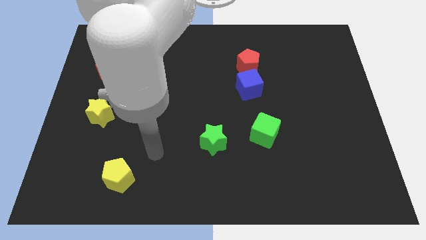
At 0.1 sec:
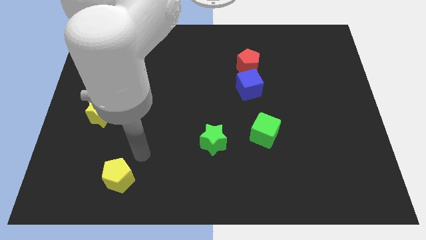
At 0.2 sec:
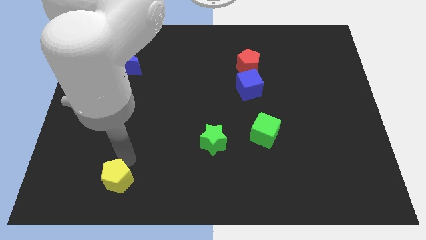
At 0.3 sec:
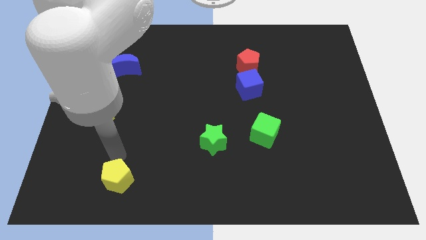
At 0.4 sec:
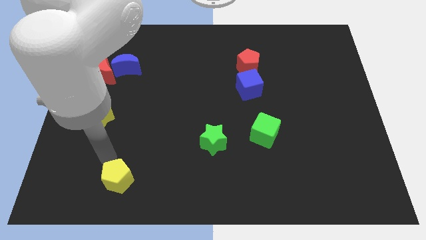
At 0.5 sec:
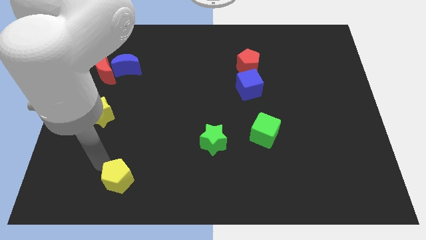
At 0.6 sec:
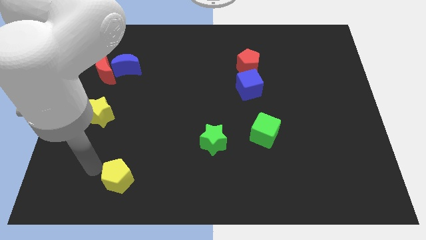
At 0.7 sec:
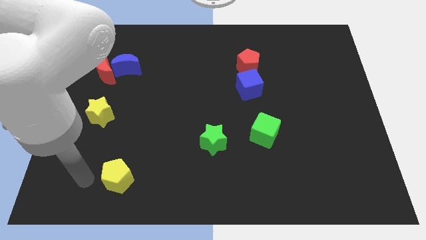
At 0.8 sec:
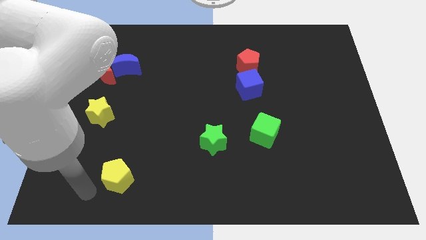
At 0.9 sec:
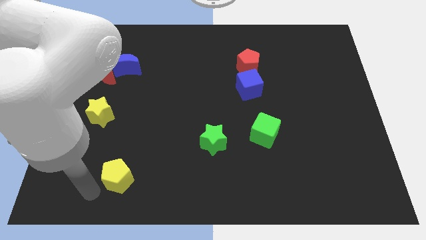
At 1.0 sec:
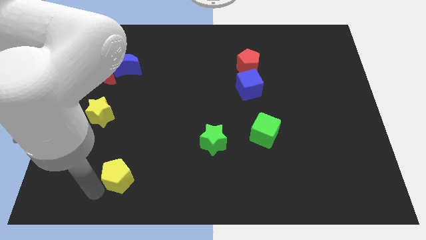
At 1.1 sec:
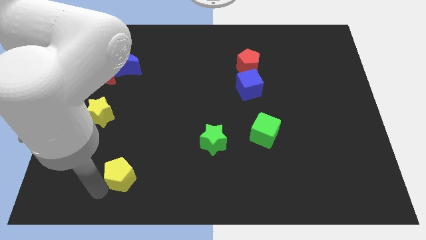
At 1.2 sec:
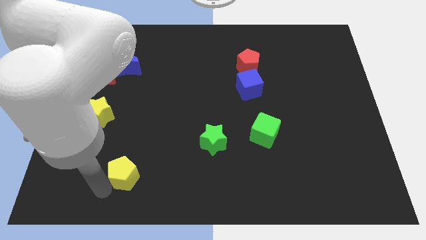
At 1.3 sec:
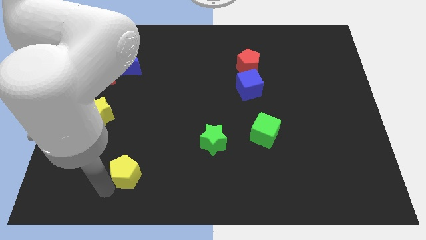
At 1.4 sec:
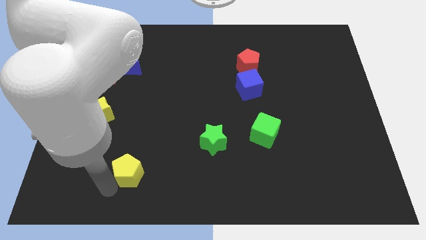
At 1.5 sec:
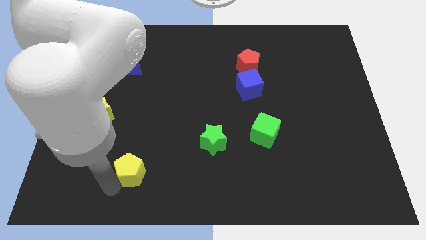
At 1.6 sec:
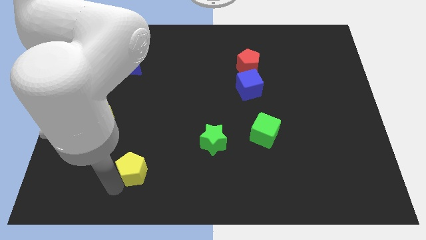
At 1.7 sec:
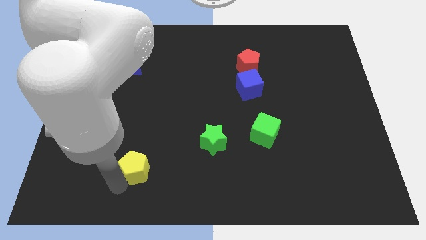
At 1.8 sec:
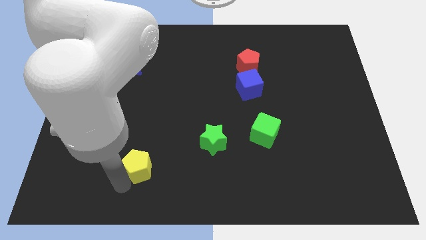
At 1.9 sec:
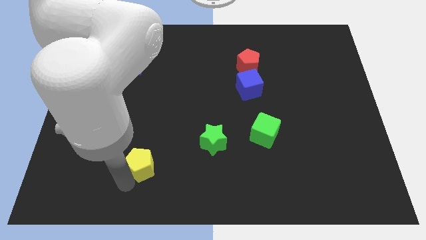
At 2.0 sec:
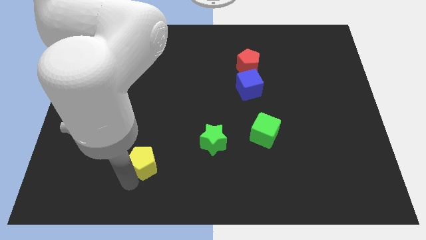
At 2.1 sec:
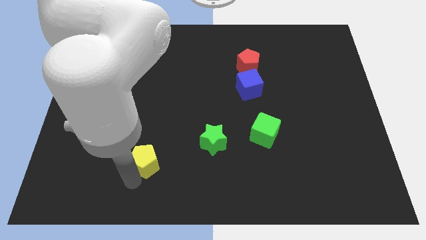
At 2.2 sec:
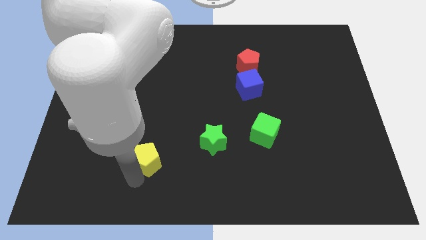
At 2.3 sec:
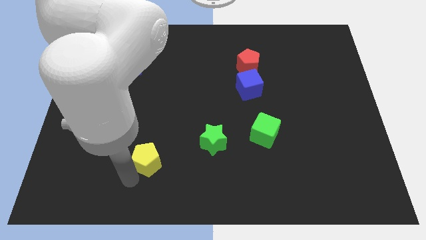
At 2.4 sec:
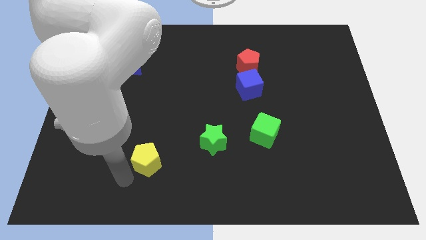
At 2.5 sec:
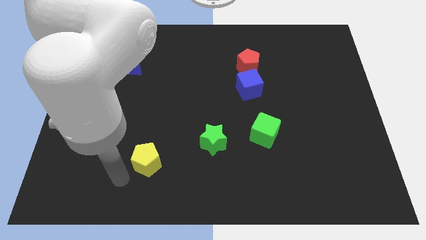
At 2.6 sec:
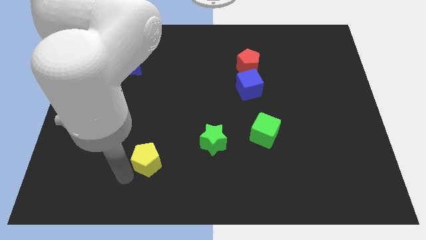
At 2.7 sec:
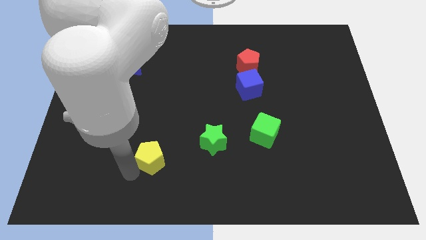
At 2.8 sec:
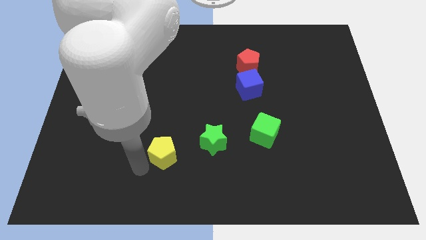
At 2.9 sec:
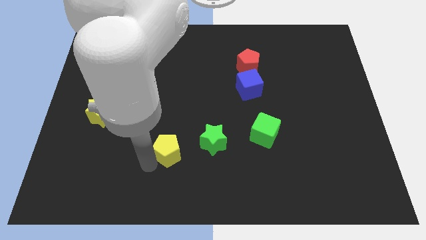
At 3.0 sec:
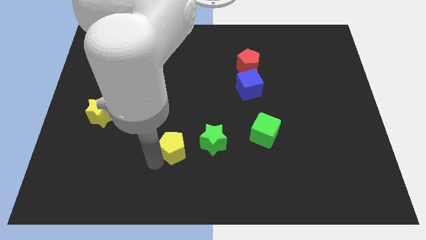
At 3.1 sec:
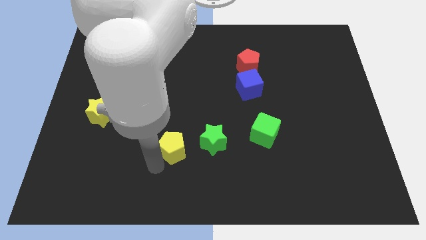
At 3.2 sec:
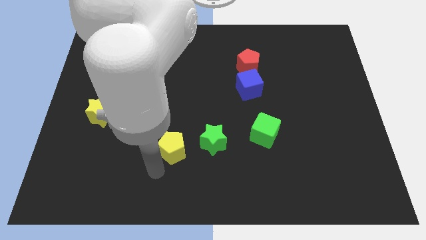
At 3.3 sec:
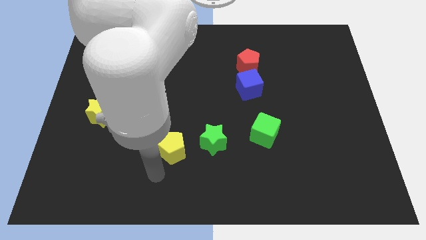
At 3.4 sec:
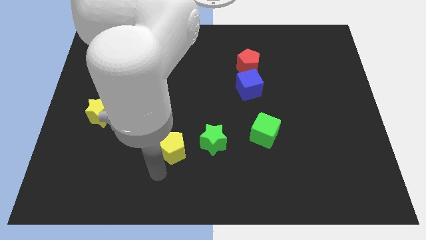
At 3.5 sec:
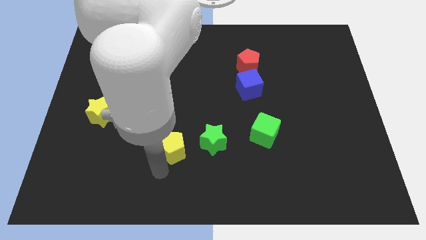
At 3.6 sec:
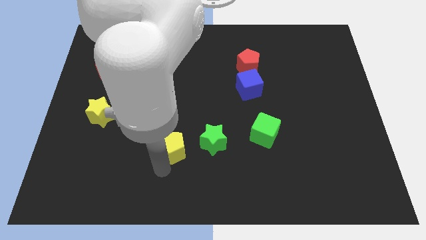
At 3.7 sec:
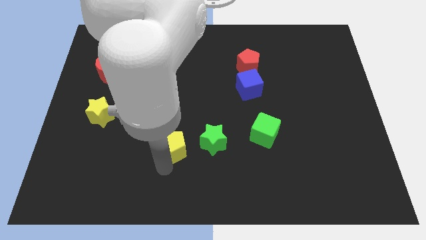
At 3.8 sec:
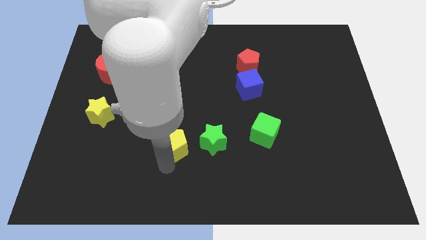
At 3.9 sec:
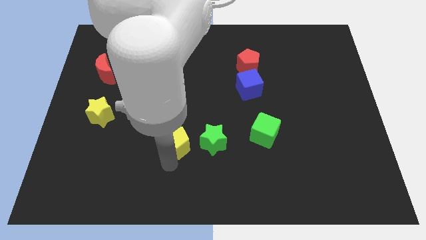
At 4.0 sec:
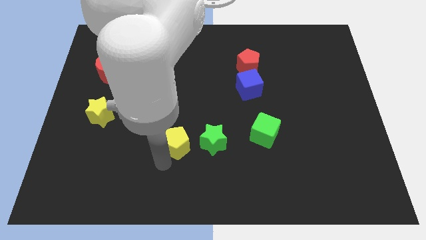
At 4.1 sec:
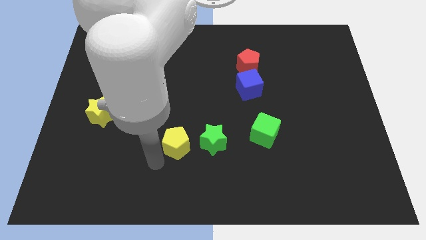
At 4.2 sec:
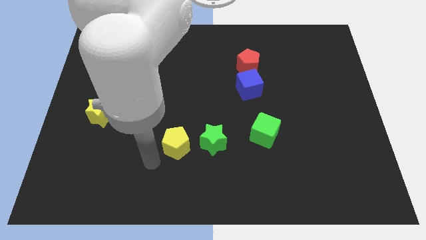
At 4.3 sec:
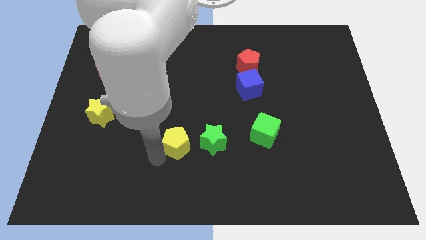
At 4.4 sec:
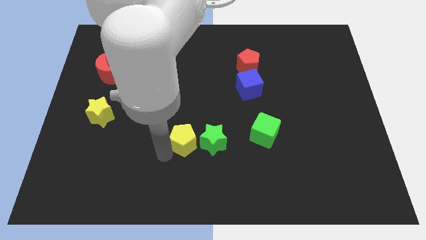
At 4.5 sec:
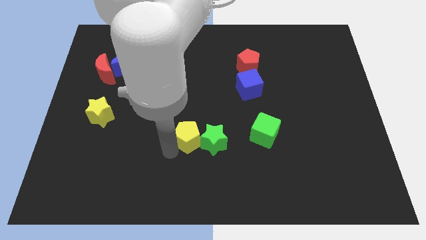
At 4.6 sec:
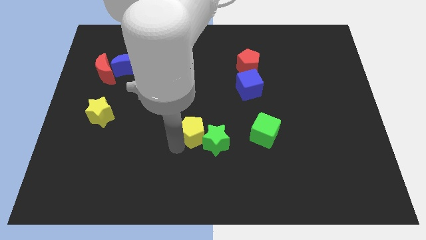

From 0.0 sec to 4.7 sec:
slide the yellow pentagon just left of the green cube

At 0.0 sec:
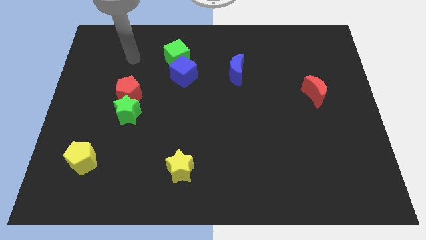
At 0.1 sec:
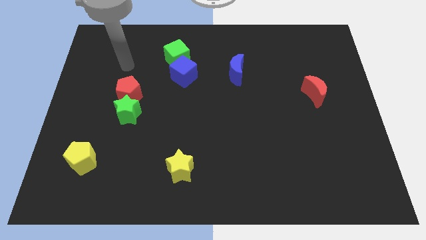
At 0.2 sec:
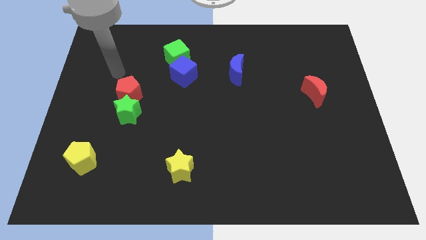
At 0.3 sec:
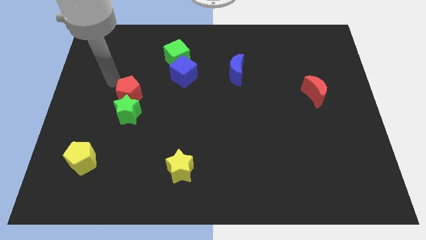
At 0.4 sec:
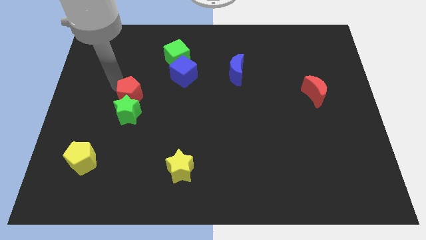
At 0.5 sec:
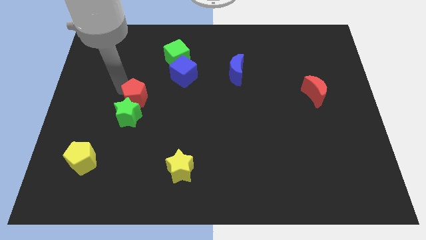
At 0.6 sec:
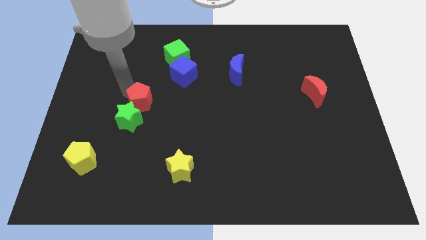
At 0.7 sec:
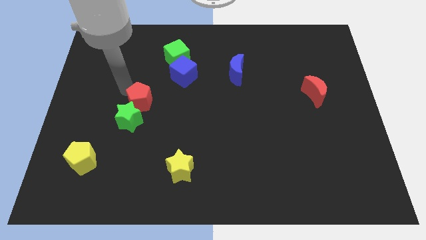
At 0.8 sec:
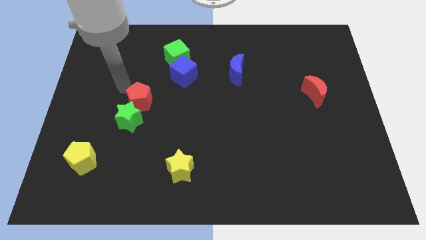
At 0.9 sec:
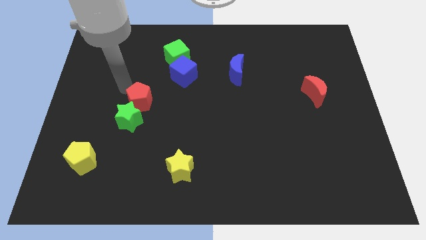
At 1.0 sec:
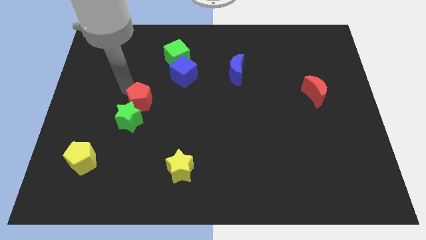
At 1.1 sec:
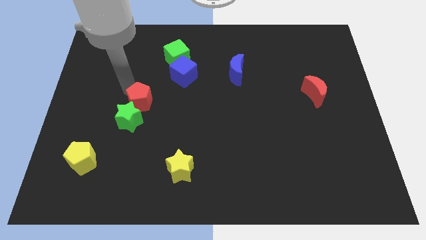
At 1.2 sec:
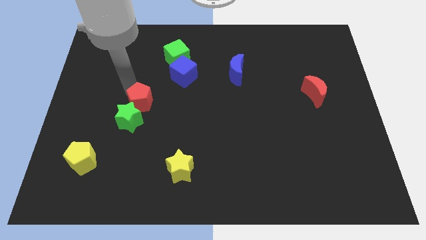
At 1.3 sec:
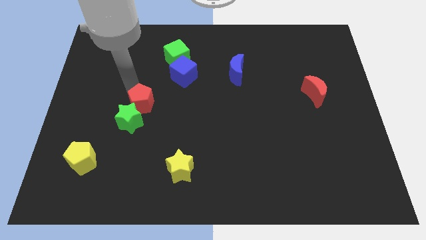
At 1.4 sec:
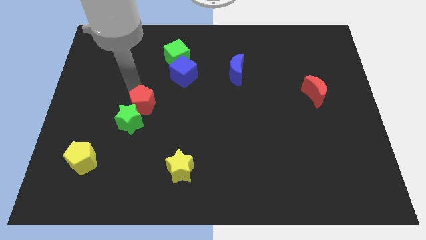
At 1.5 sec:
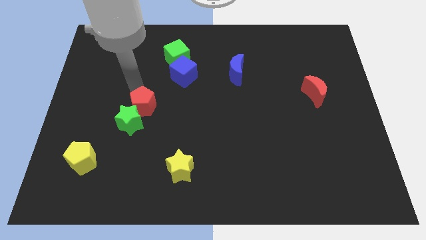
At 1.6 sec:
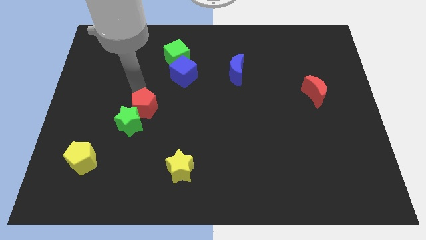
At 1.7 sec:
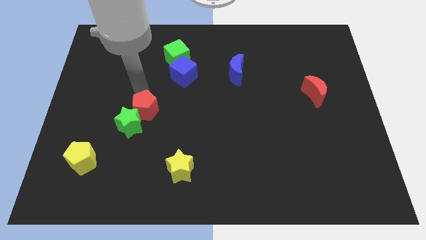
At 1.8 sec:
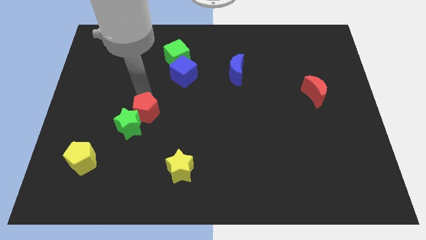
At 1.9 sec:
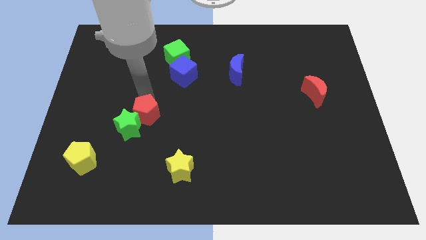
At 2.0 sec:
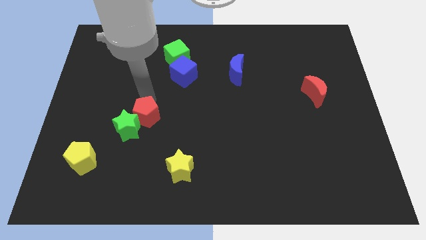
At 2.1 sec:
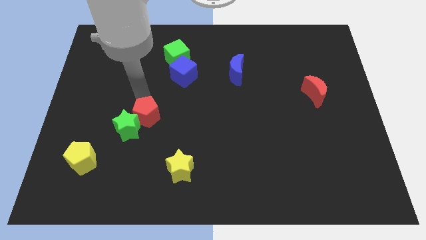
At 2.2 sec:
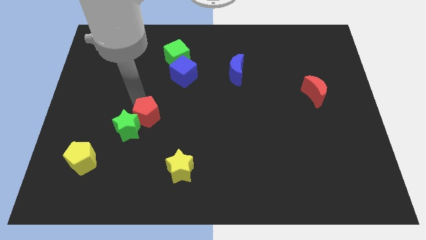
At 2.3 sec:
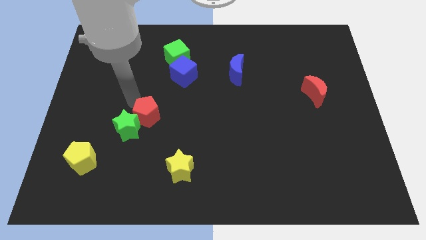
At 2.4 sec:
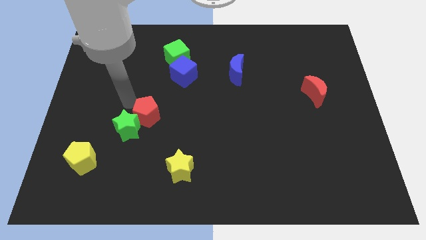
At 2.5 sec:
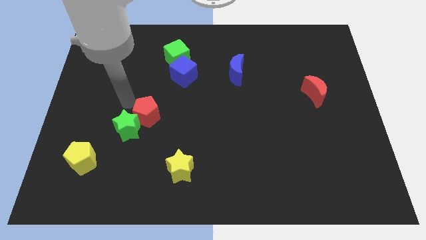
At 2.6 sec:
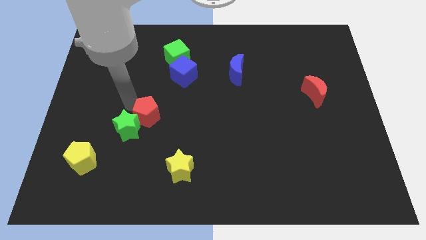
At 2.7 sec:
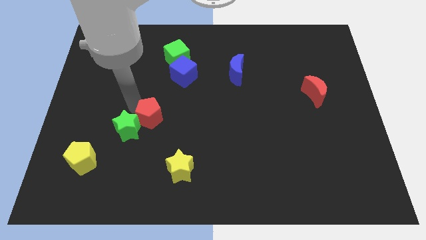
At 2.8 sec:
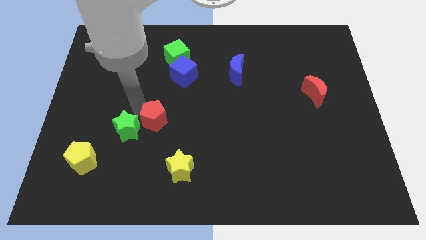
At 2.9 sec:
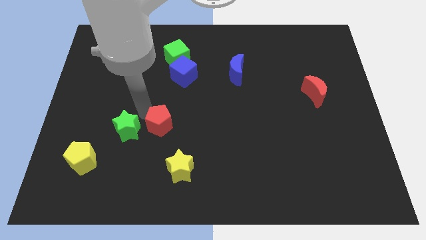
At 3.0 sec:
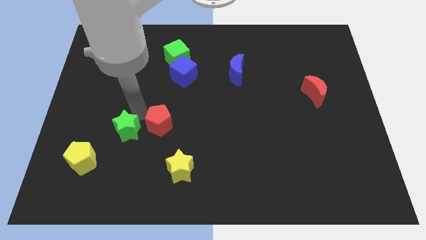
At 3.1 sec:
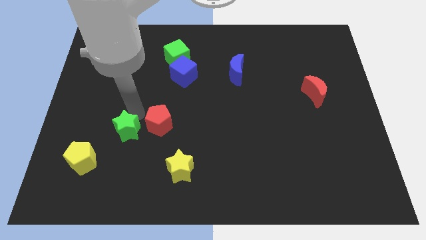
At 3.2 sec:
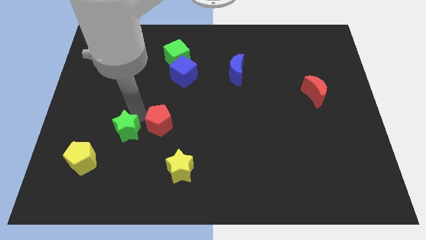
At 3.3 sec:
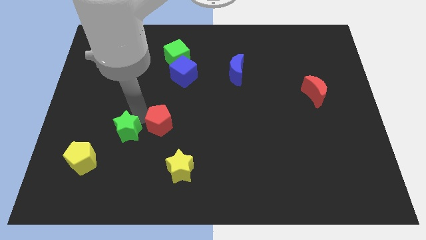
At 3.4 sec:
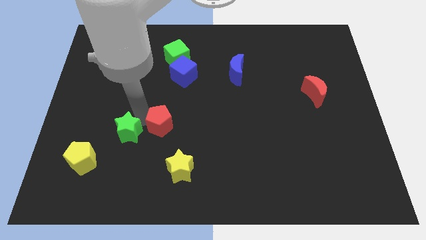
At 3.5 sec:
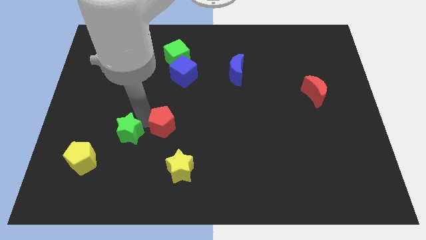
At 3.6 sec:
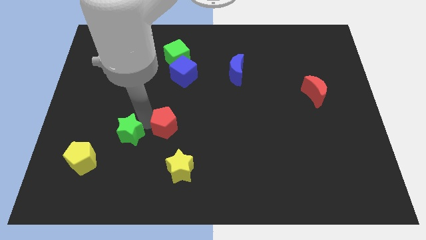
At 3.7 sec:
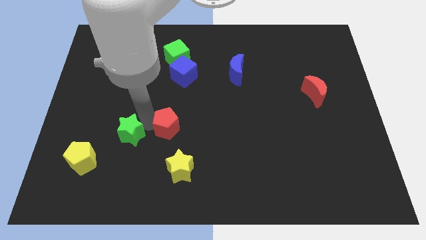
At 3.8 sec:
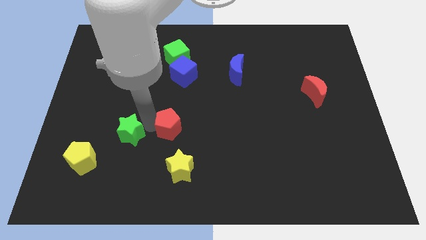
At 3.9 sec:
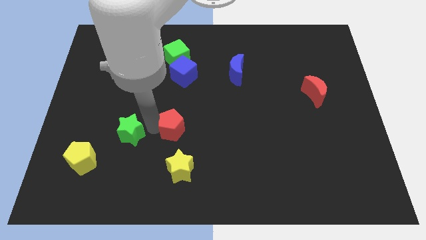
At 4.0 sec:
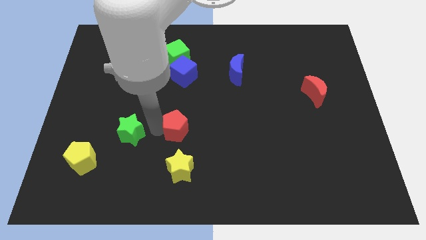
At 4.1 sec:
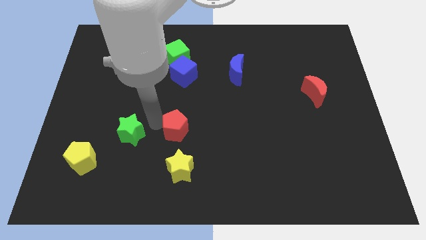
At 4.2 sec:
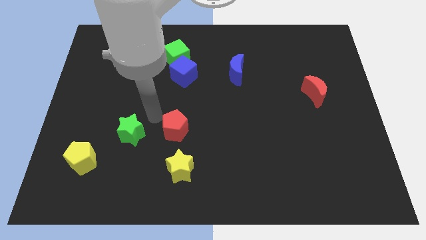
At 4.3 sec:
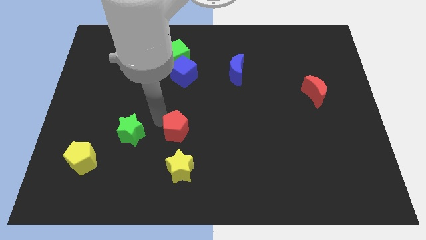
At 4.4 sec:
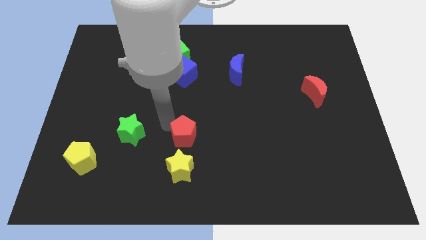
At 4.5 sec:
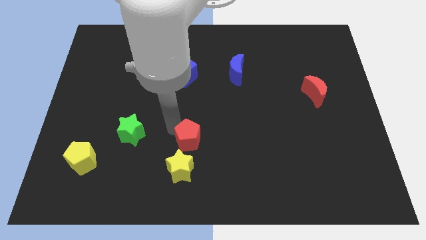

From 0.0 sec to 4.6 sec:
move the red pentagon to the top right of the yellow star
